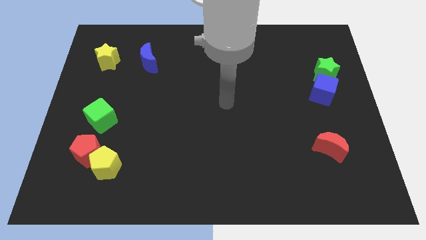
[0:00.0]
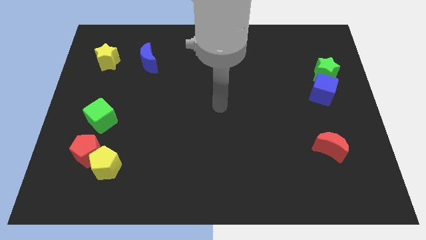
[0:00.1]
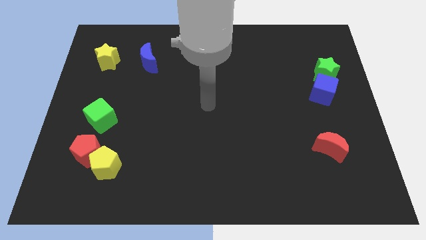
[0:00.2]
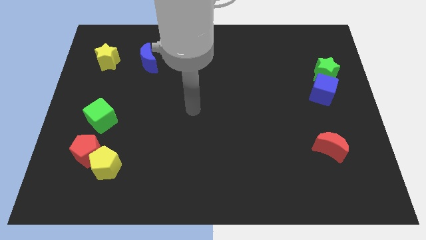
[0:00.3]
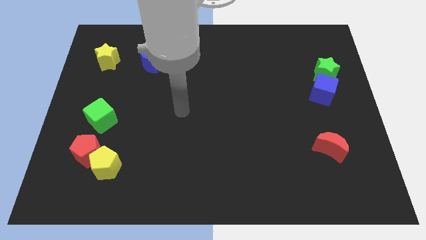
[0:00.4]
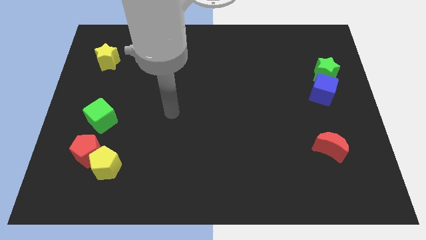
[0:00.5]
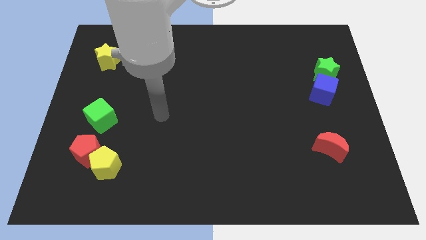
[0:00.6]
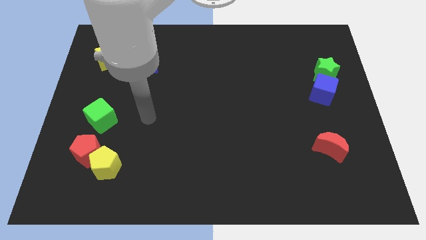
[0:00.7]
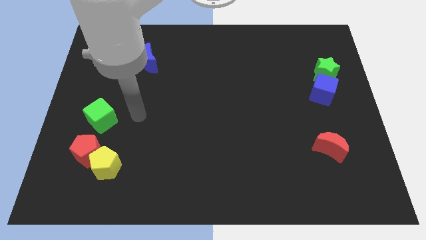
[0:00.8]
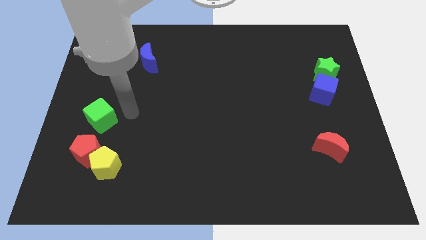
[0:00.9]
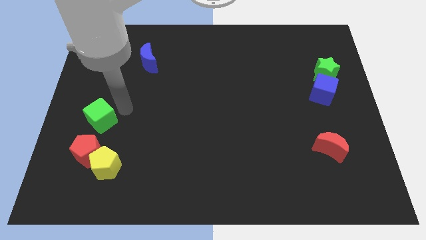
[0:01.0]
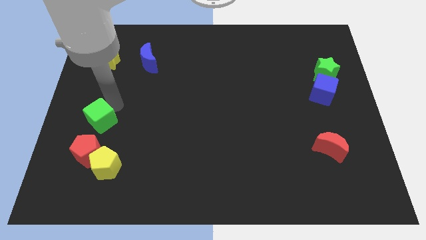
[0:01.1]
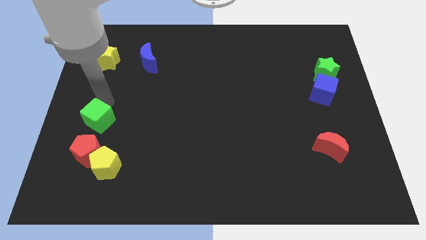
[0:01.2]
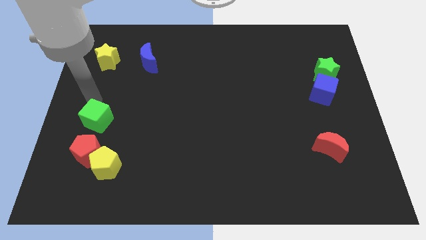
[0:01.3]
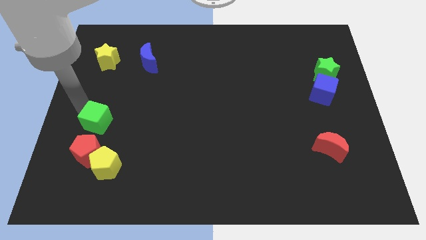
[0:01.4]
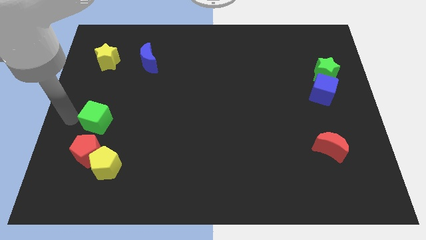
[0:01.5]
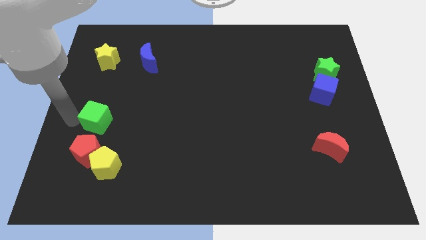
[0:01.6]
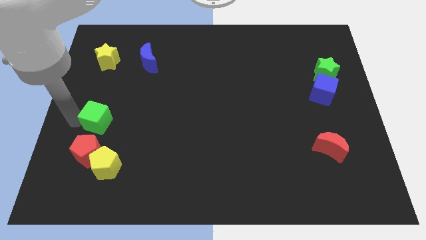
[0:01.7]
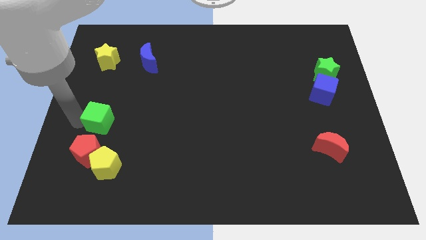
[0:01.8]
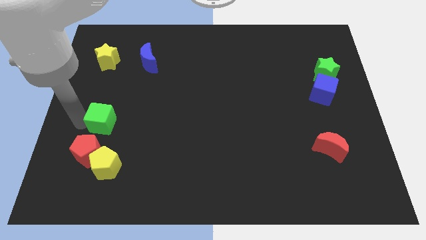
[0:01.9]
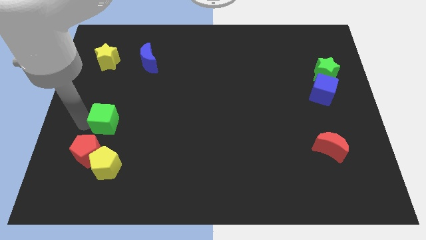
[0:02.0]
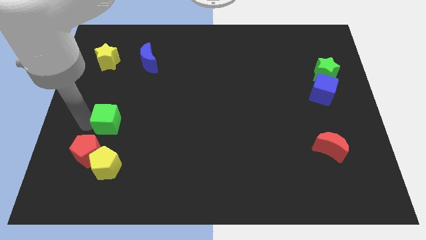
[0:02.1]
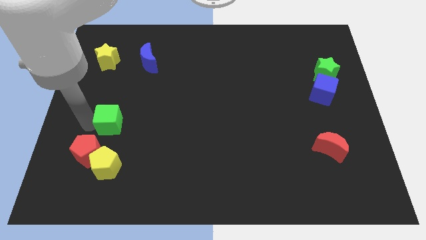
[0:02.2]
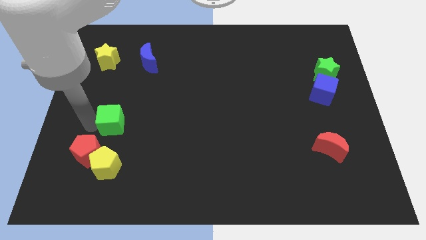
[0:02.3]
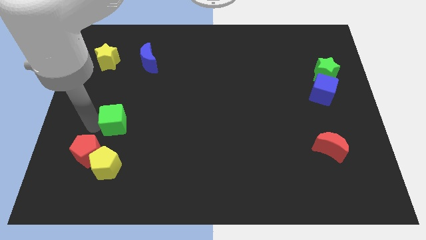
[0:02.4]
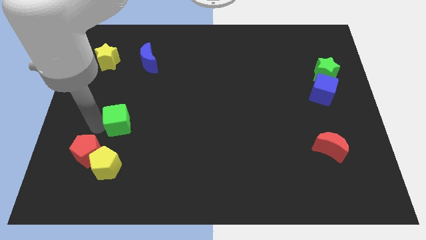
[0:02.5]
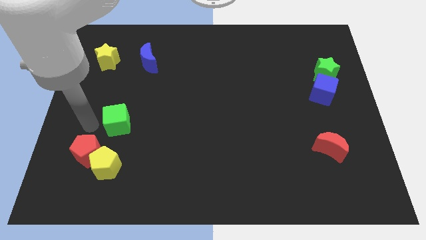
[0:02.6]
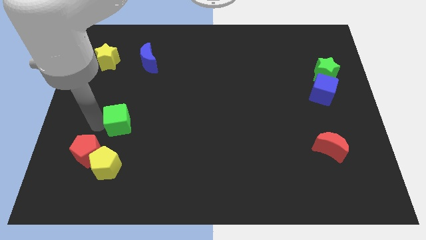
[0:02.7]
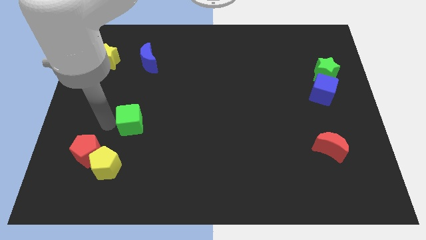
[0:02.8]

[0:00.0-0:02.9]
slightly push the green cube to the right

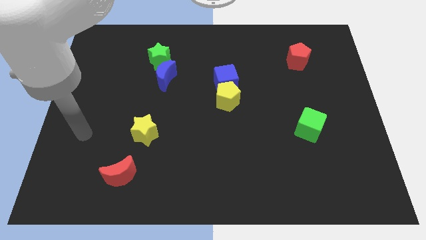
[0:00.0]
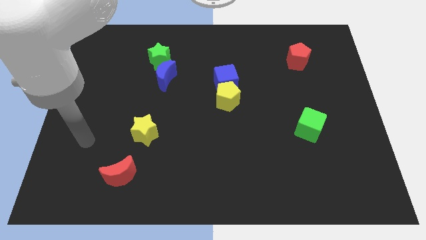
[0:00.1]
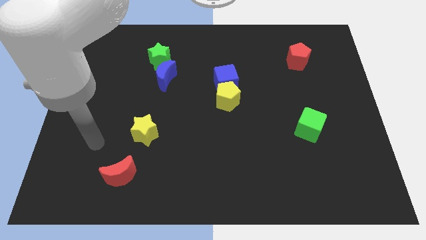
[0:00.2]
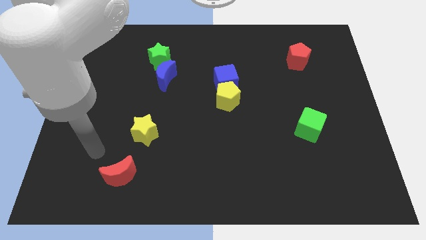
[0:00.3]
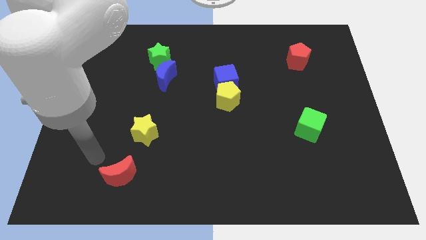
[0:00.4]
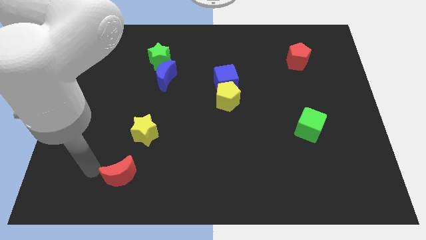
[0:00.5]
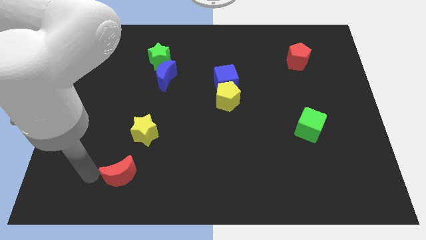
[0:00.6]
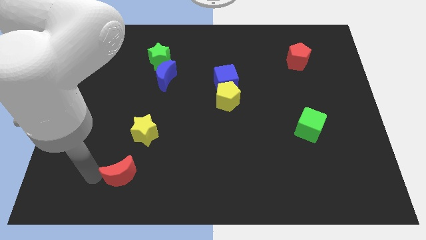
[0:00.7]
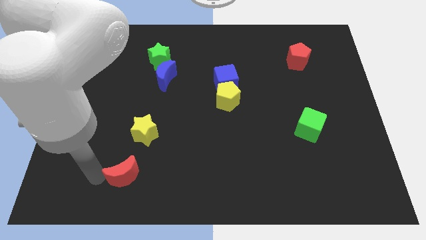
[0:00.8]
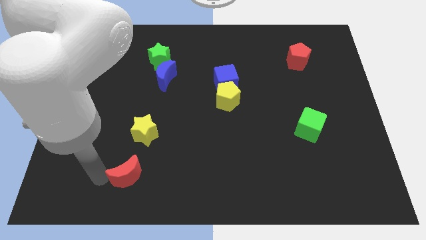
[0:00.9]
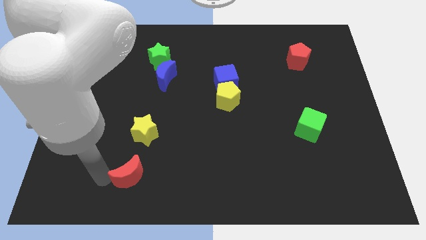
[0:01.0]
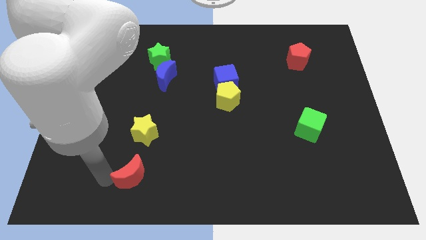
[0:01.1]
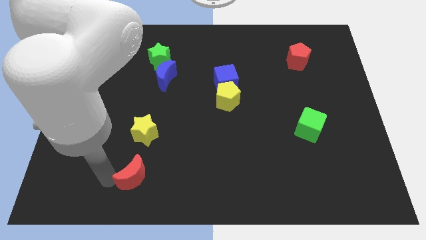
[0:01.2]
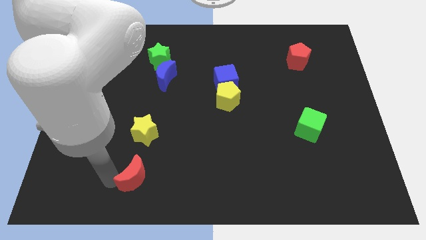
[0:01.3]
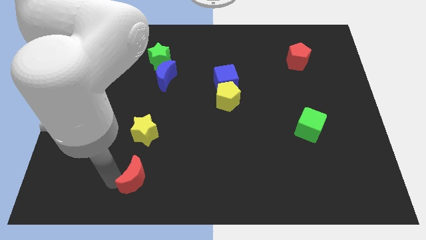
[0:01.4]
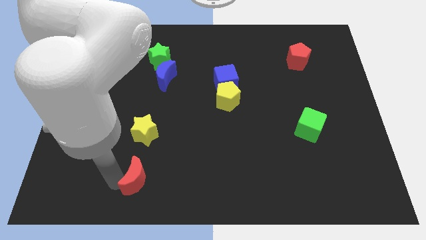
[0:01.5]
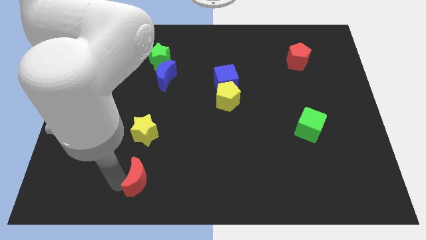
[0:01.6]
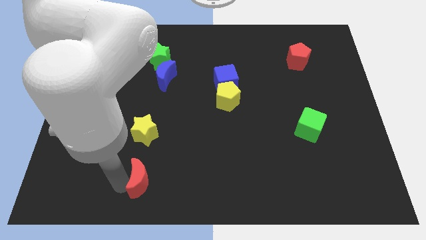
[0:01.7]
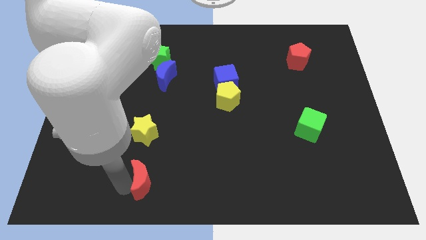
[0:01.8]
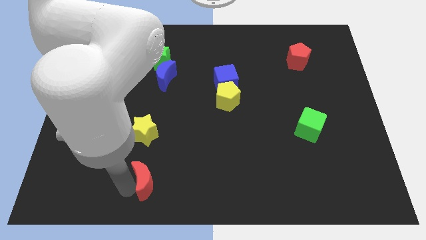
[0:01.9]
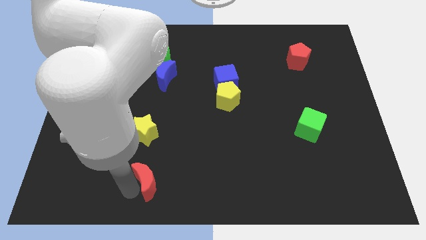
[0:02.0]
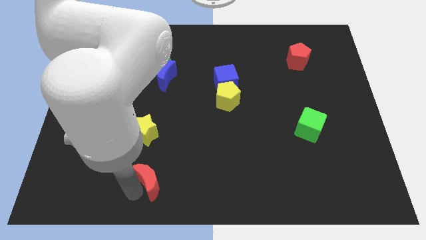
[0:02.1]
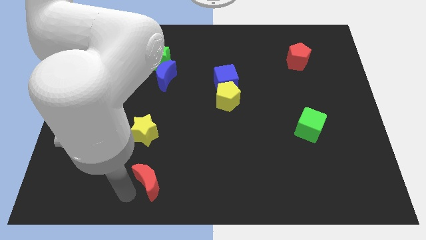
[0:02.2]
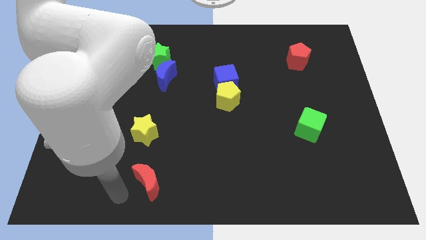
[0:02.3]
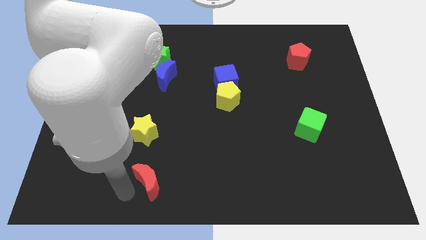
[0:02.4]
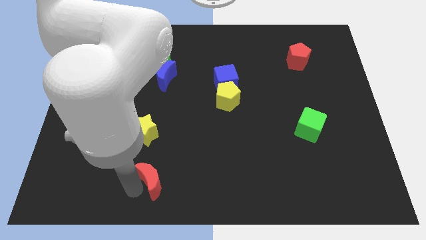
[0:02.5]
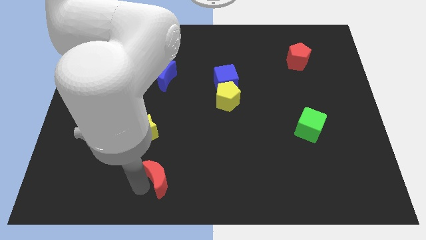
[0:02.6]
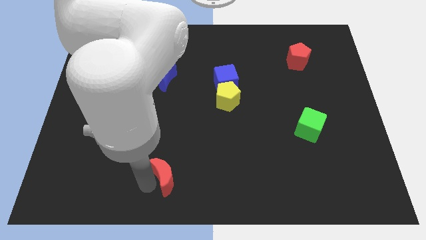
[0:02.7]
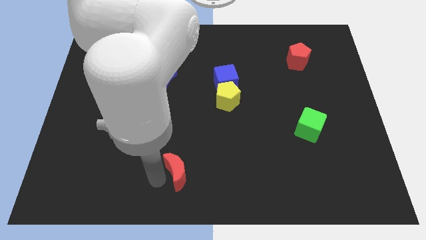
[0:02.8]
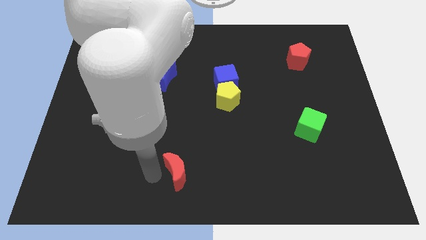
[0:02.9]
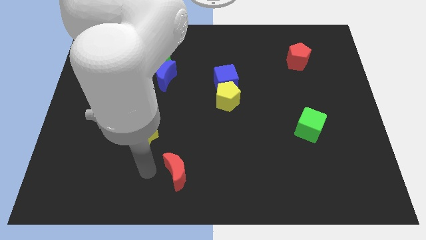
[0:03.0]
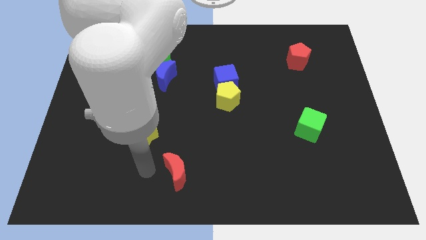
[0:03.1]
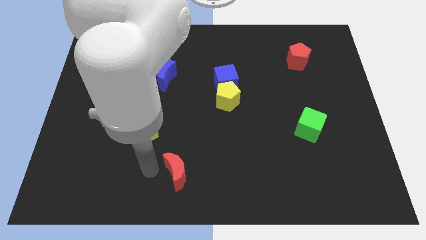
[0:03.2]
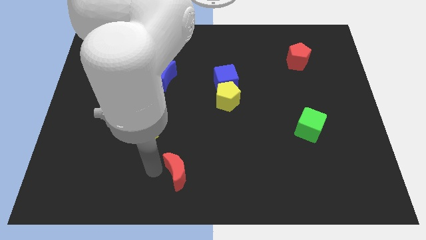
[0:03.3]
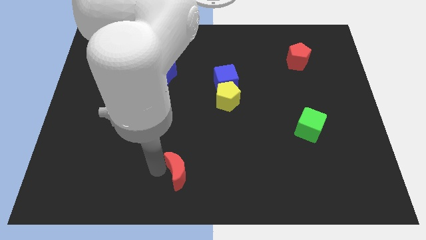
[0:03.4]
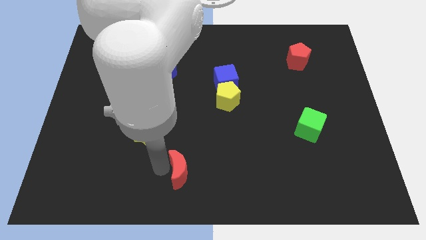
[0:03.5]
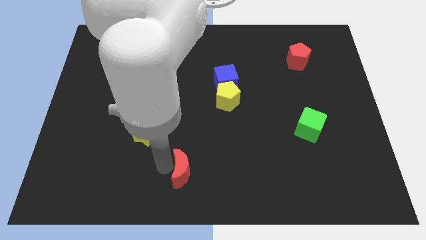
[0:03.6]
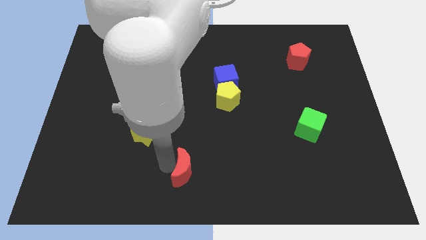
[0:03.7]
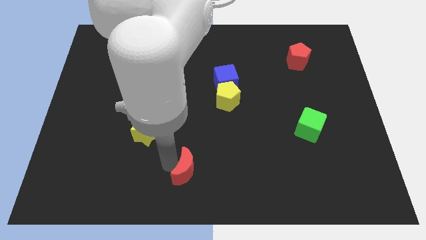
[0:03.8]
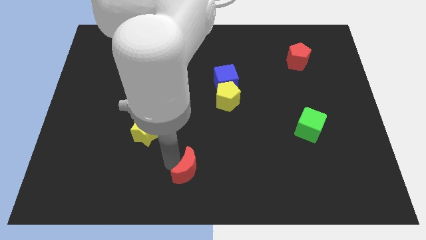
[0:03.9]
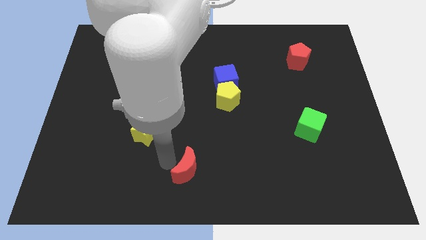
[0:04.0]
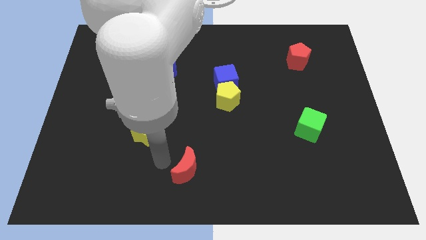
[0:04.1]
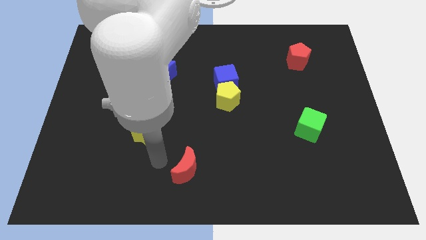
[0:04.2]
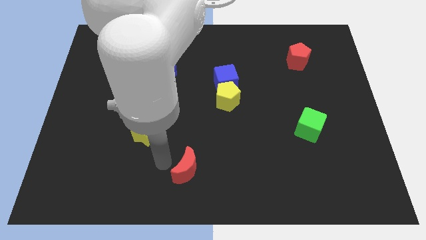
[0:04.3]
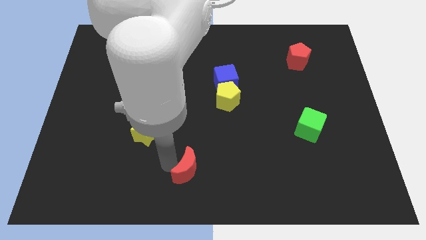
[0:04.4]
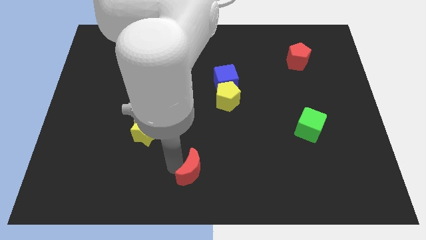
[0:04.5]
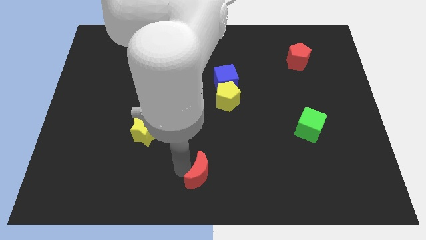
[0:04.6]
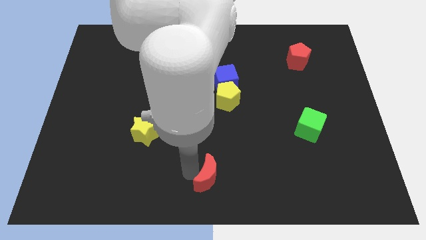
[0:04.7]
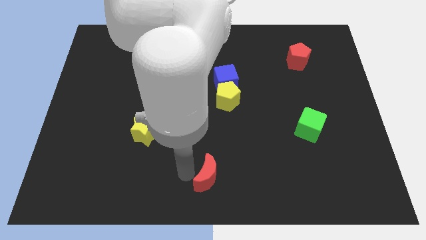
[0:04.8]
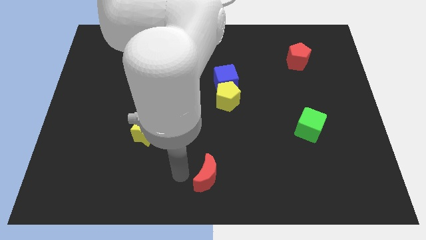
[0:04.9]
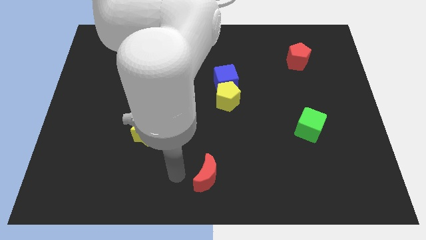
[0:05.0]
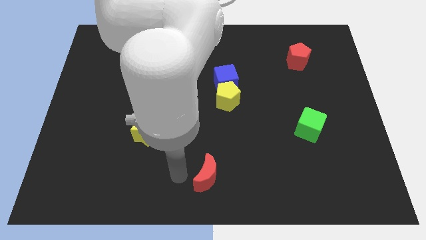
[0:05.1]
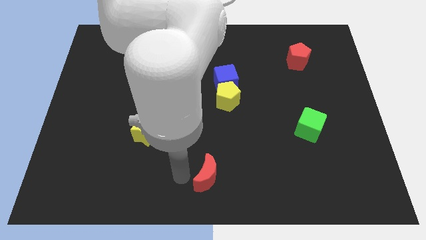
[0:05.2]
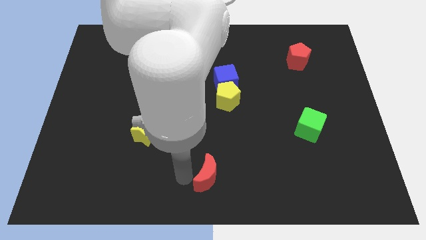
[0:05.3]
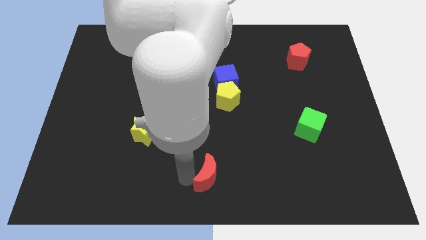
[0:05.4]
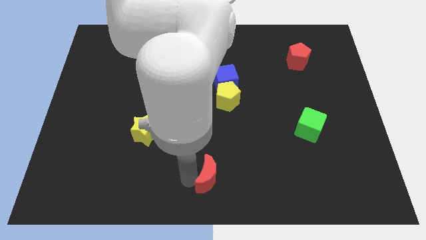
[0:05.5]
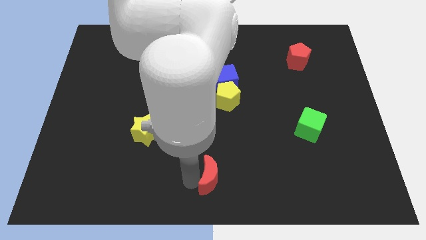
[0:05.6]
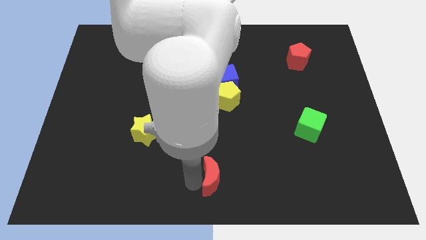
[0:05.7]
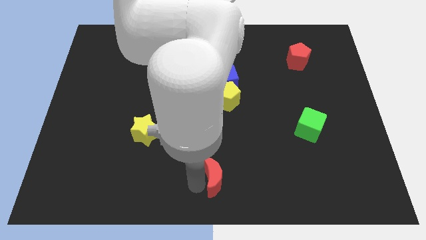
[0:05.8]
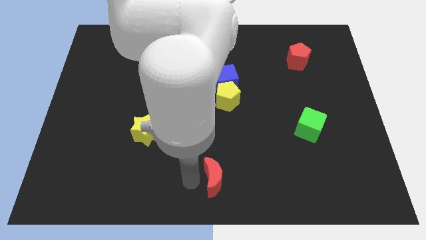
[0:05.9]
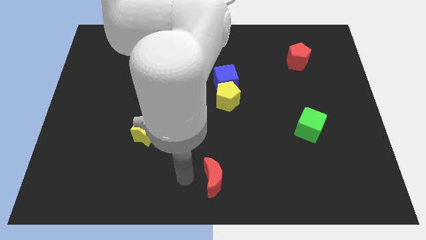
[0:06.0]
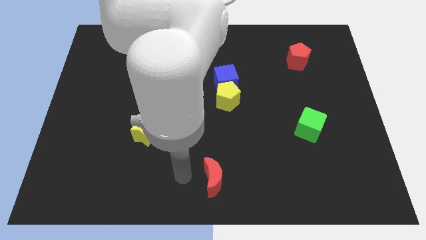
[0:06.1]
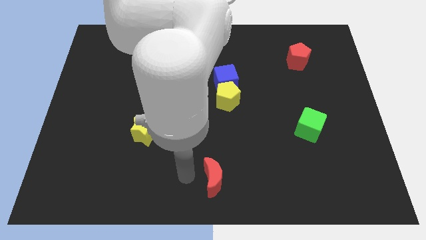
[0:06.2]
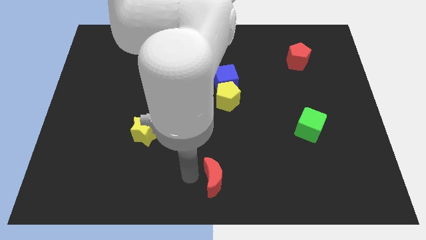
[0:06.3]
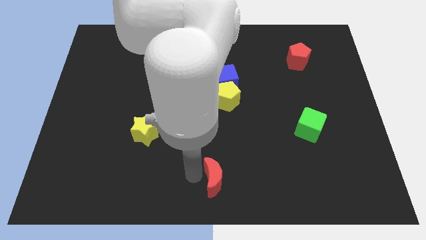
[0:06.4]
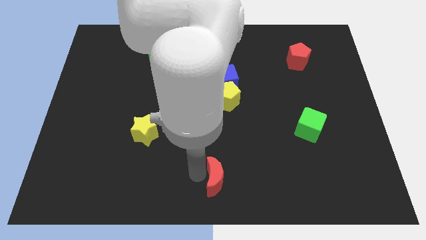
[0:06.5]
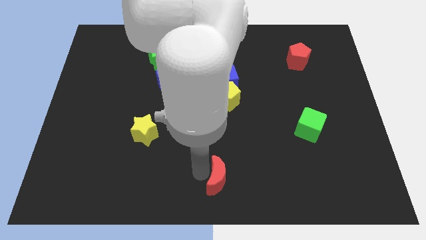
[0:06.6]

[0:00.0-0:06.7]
move the red moon to the right
